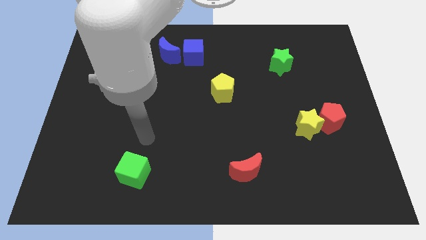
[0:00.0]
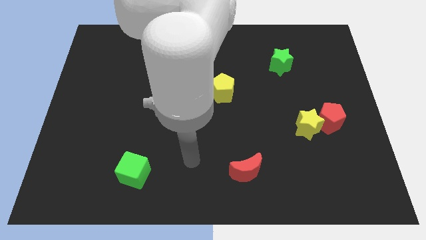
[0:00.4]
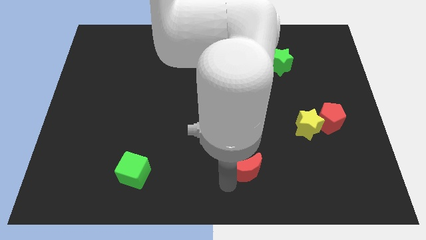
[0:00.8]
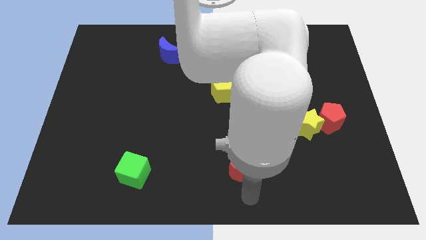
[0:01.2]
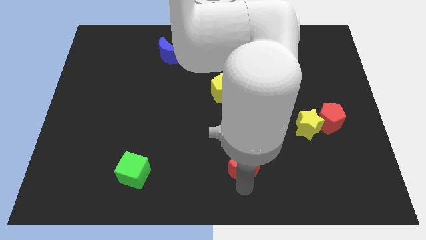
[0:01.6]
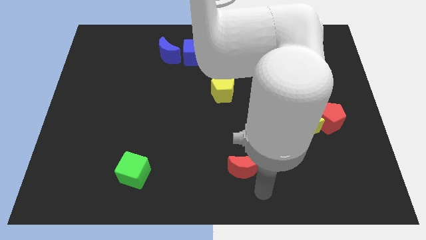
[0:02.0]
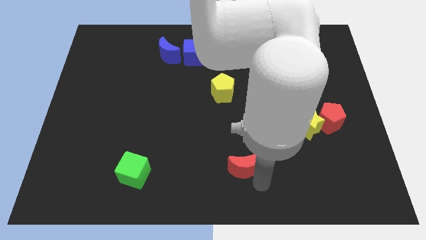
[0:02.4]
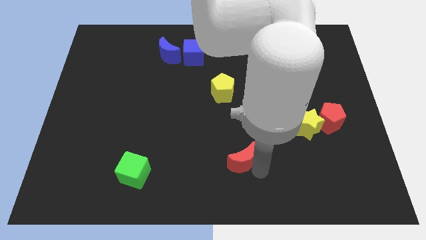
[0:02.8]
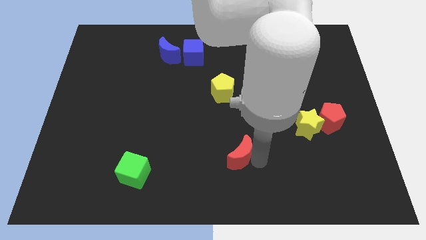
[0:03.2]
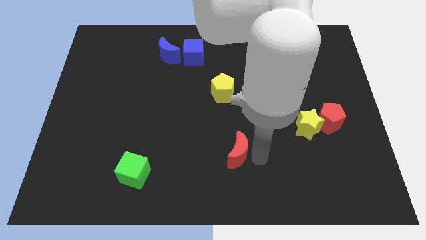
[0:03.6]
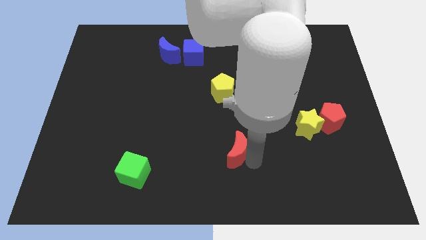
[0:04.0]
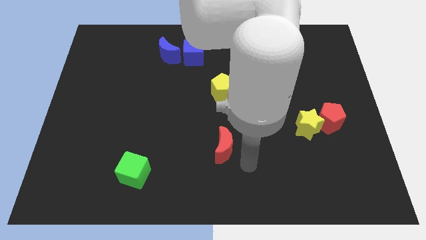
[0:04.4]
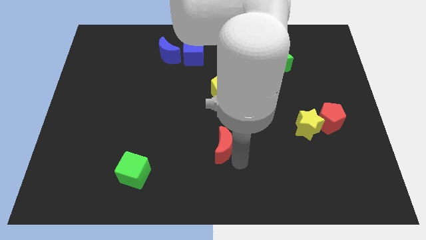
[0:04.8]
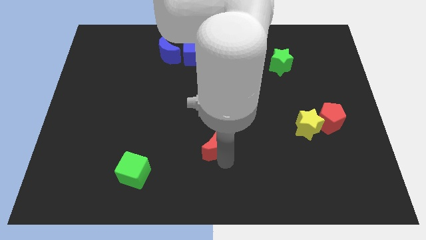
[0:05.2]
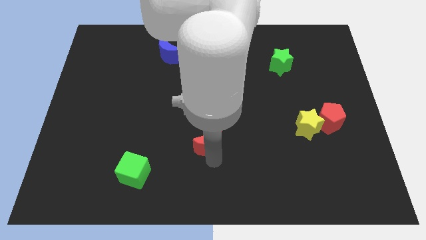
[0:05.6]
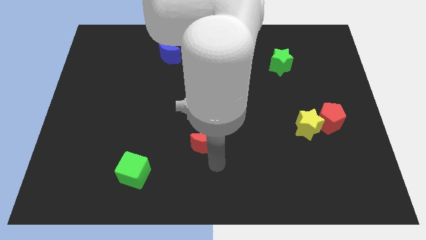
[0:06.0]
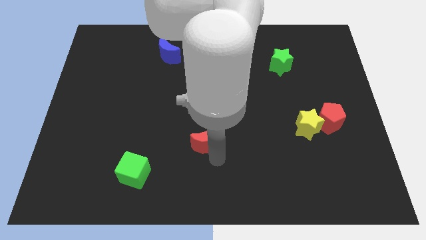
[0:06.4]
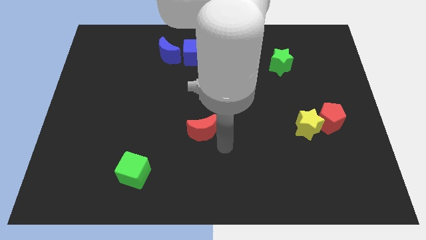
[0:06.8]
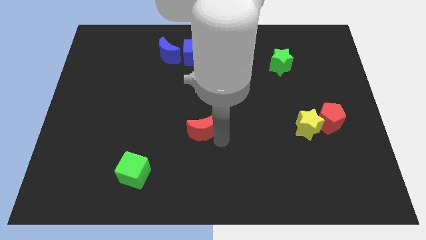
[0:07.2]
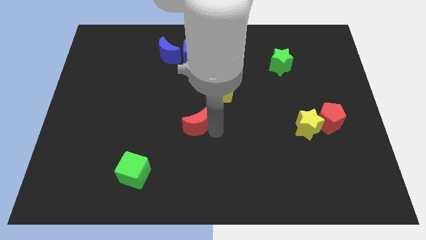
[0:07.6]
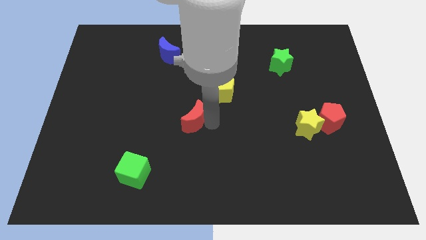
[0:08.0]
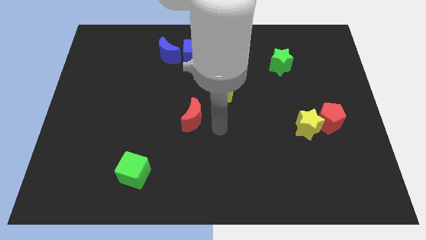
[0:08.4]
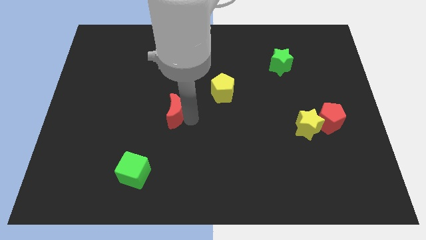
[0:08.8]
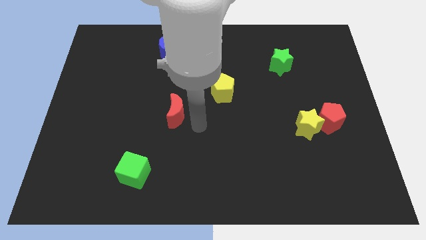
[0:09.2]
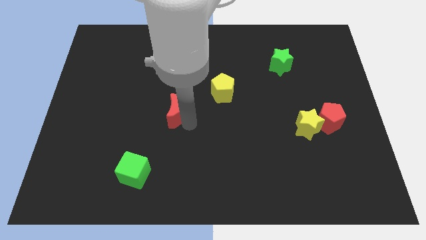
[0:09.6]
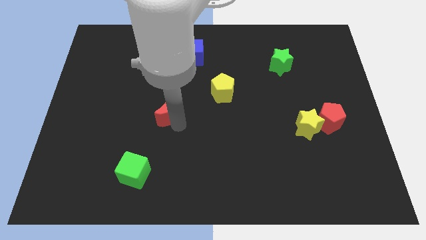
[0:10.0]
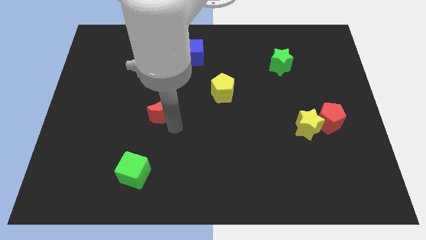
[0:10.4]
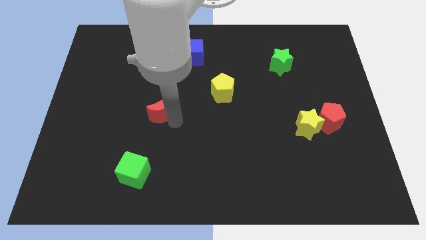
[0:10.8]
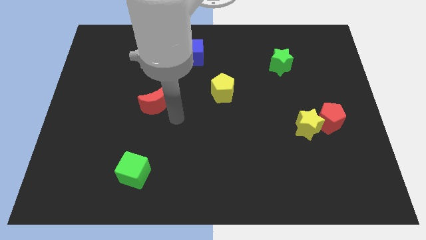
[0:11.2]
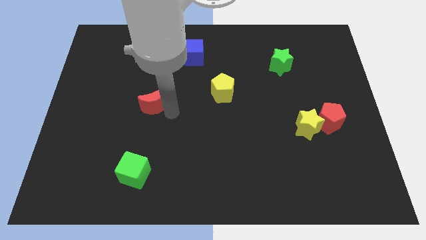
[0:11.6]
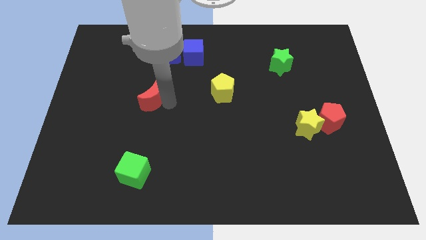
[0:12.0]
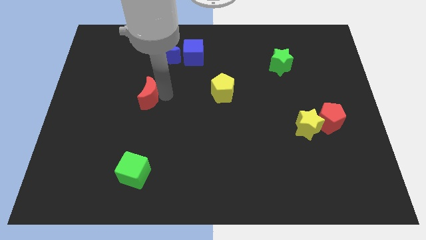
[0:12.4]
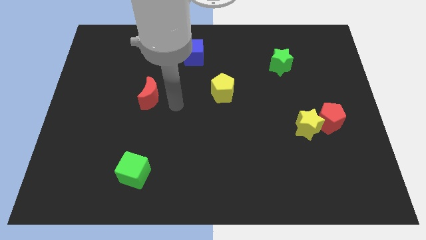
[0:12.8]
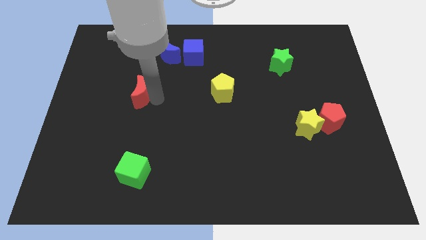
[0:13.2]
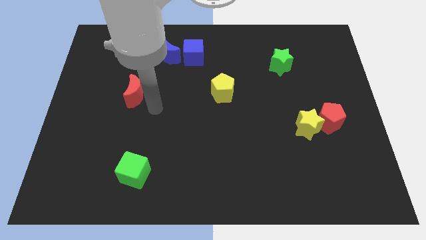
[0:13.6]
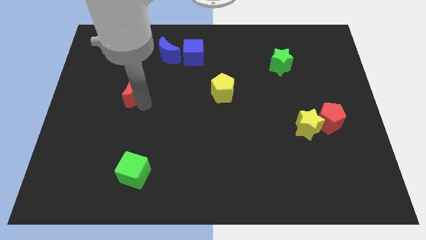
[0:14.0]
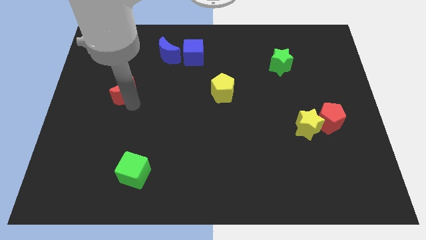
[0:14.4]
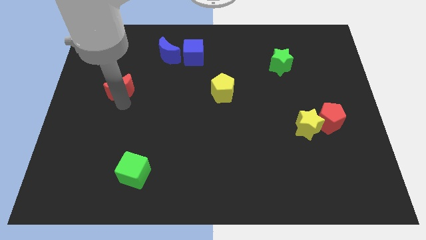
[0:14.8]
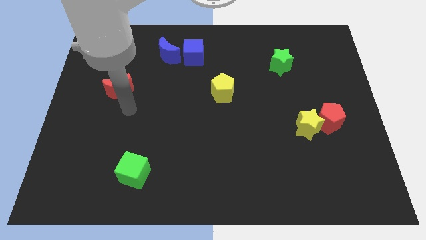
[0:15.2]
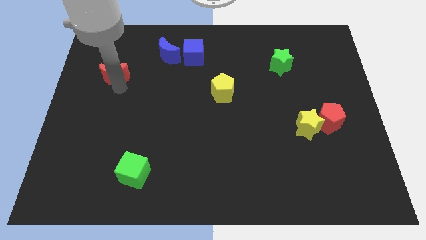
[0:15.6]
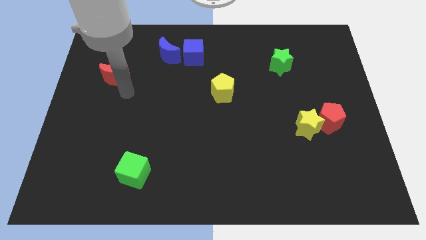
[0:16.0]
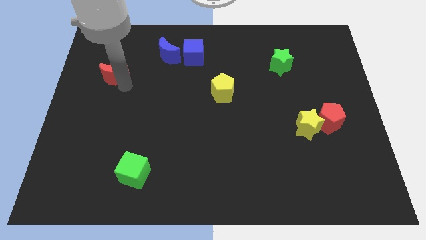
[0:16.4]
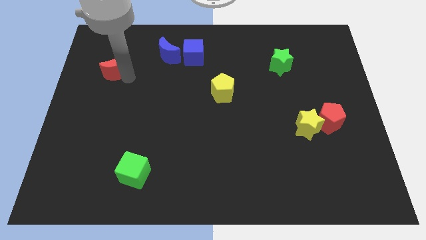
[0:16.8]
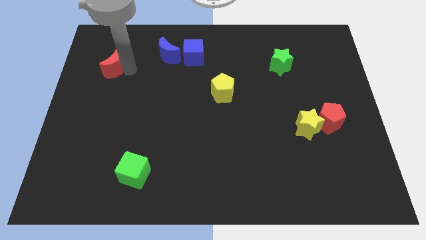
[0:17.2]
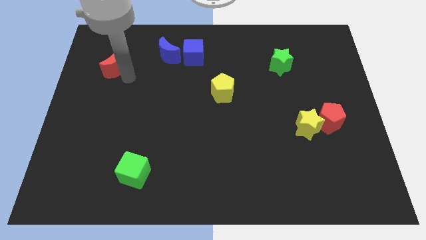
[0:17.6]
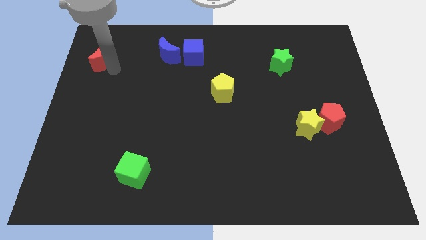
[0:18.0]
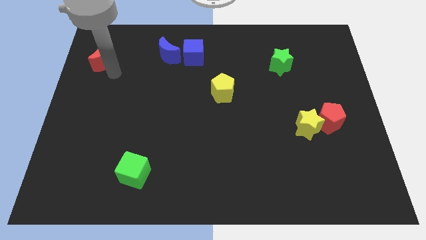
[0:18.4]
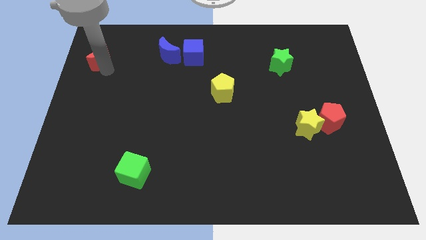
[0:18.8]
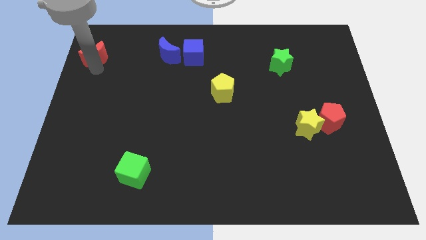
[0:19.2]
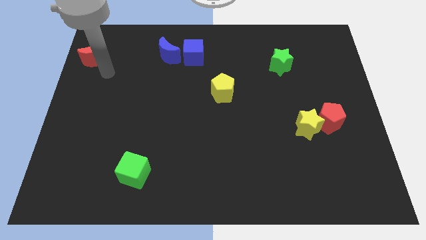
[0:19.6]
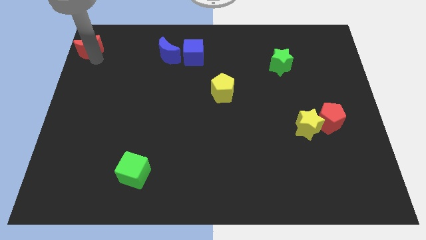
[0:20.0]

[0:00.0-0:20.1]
push the red moon to the upper left corner

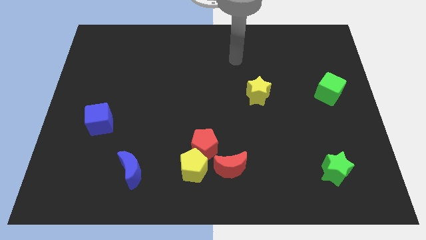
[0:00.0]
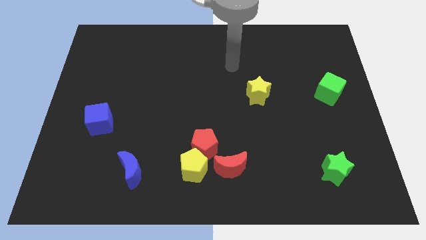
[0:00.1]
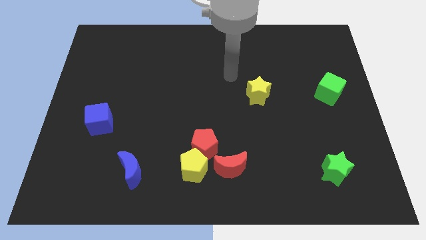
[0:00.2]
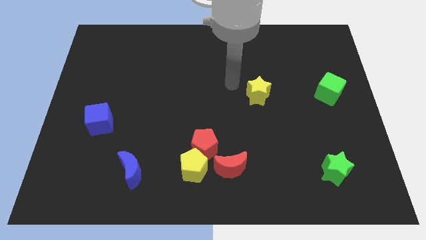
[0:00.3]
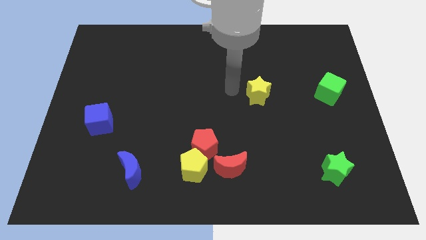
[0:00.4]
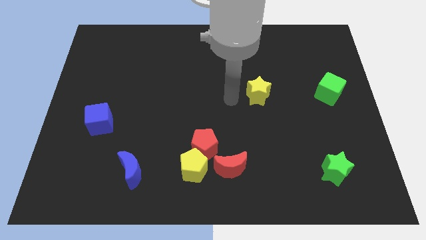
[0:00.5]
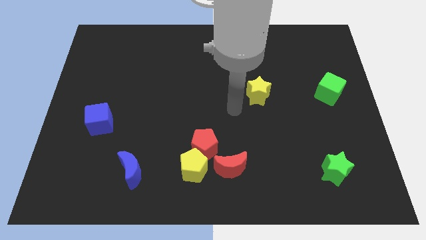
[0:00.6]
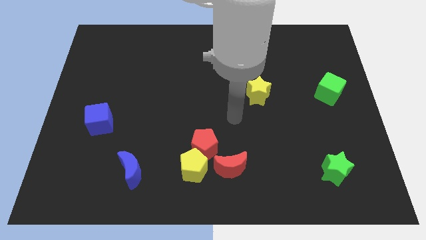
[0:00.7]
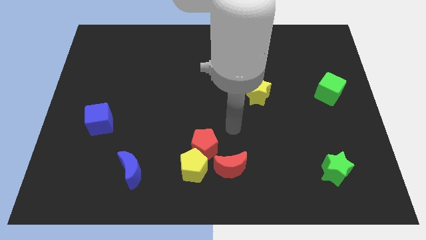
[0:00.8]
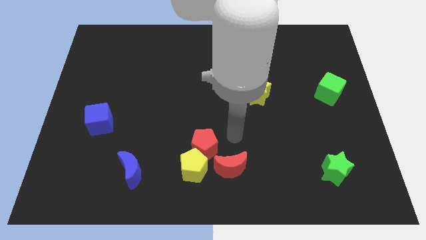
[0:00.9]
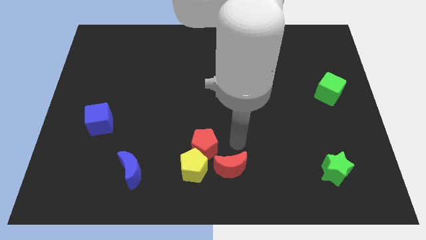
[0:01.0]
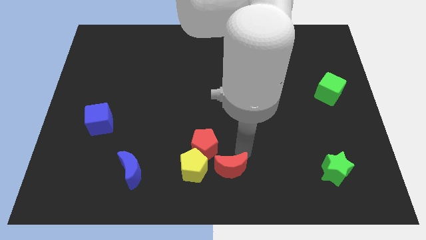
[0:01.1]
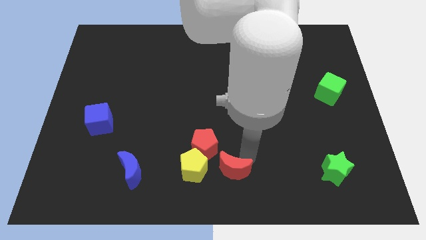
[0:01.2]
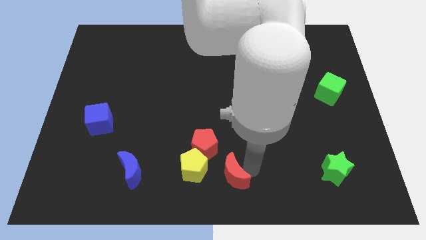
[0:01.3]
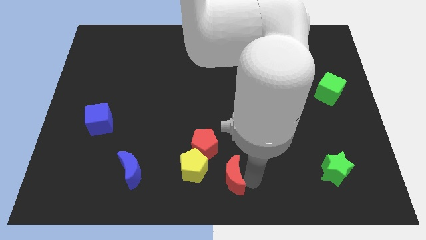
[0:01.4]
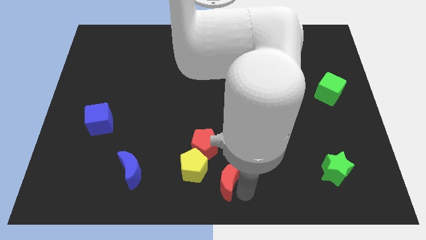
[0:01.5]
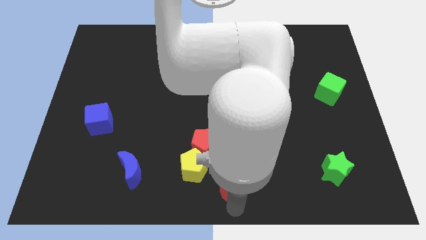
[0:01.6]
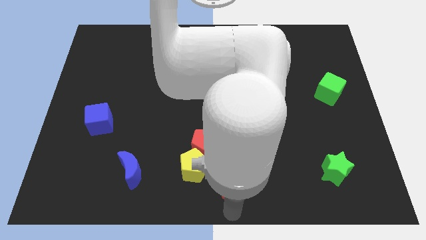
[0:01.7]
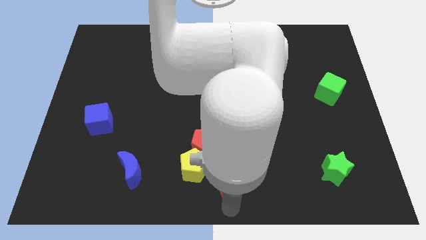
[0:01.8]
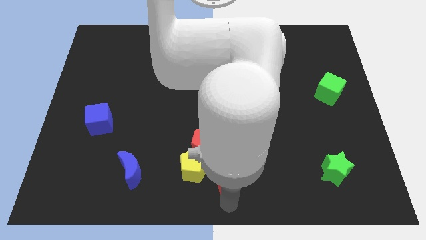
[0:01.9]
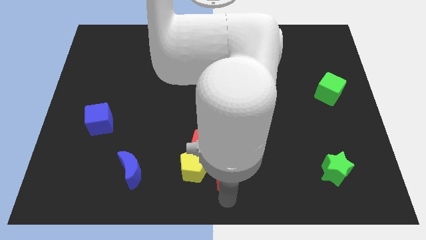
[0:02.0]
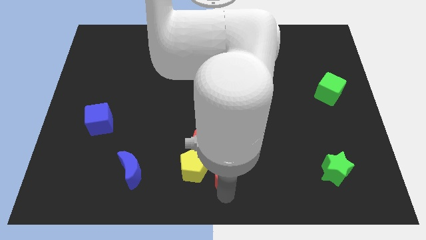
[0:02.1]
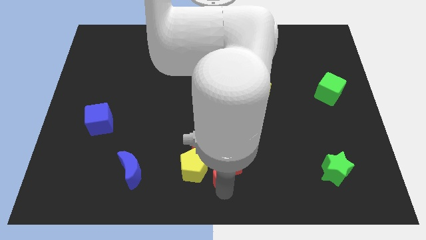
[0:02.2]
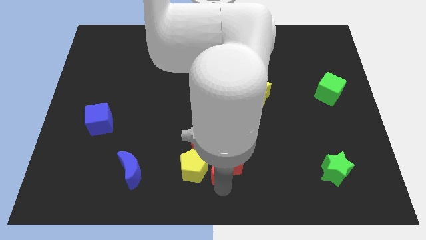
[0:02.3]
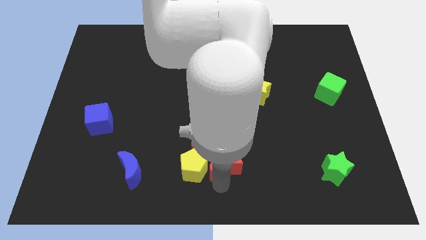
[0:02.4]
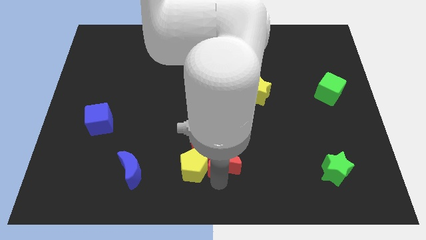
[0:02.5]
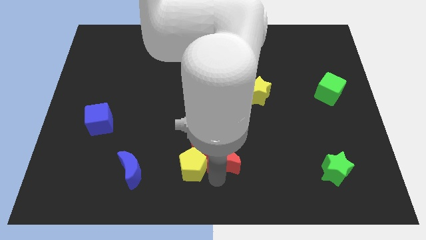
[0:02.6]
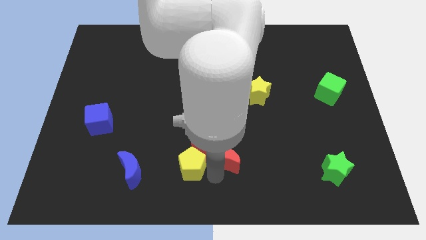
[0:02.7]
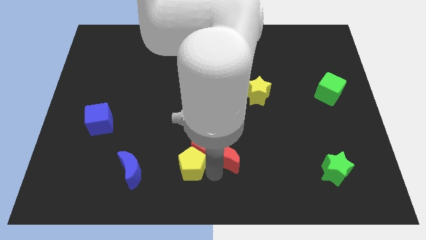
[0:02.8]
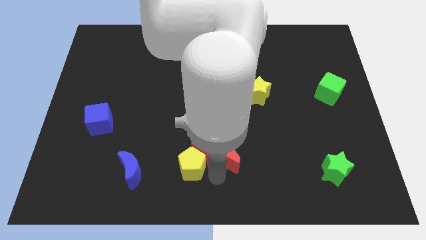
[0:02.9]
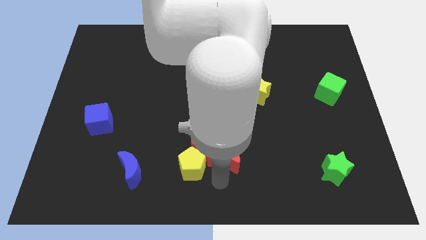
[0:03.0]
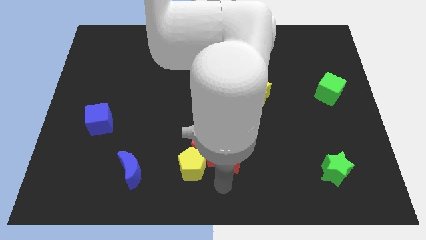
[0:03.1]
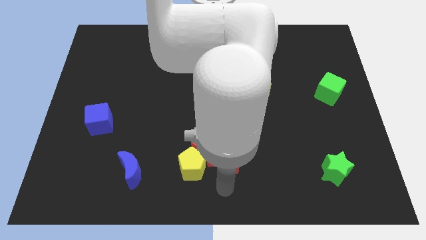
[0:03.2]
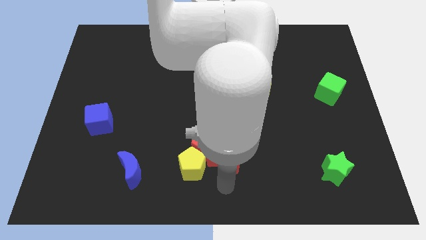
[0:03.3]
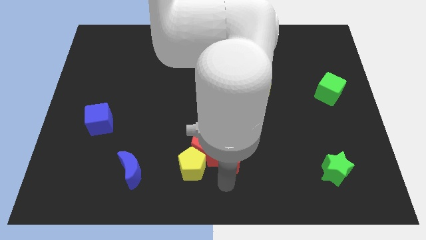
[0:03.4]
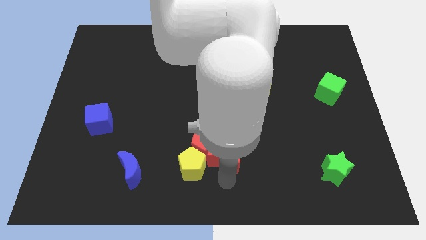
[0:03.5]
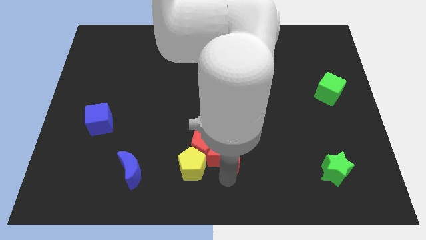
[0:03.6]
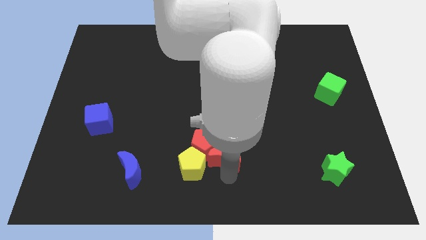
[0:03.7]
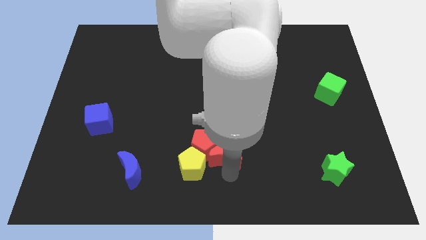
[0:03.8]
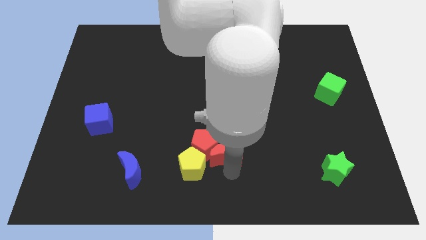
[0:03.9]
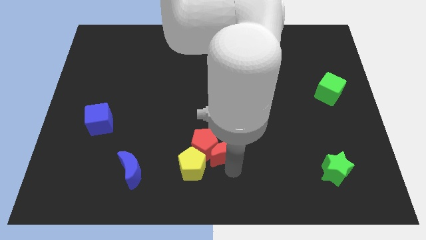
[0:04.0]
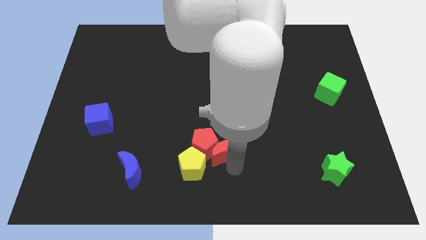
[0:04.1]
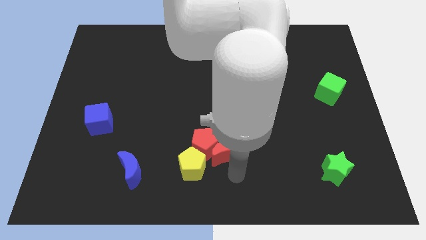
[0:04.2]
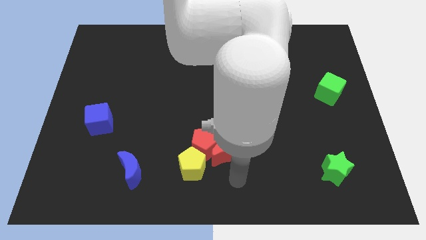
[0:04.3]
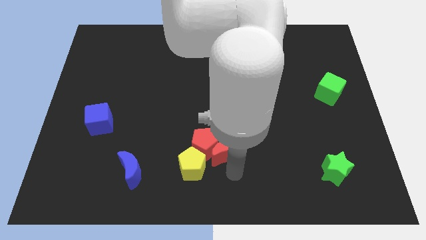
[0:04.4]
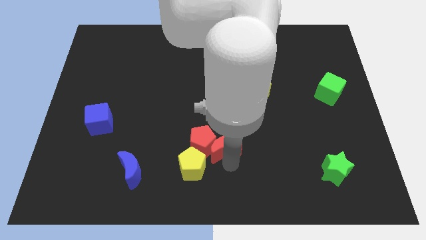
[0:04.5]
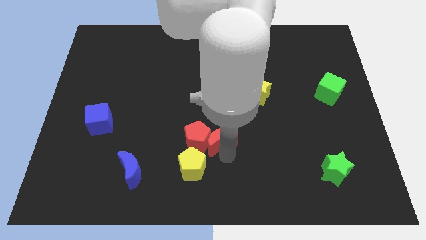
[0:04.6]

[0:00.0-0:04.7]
put the red moon to the center of the board
